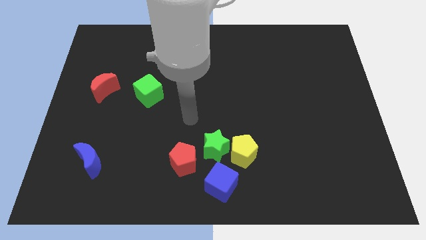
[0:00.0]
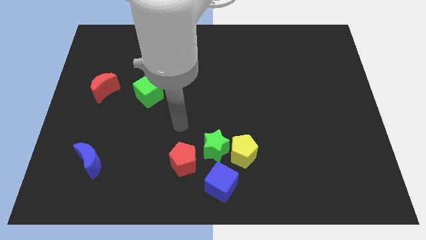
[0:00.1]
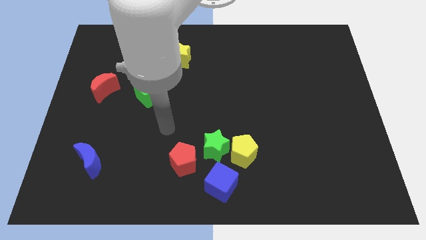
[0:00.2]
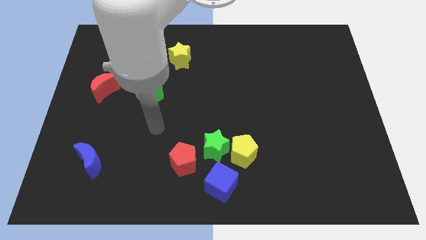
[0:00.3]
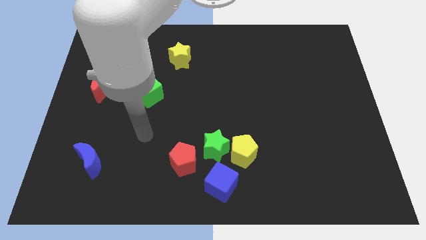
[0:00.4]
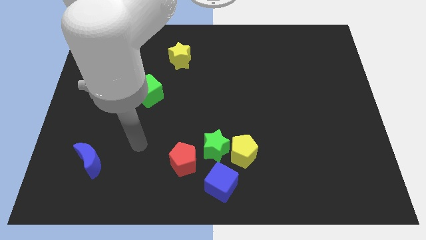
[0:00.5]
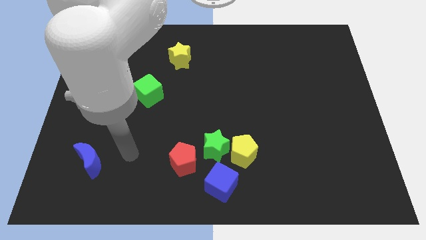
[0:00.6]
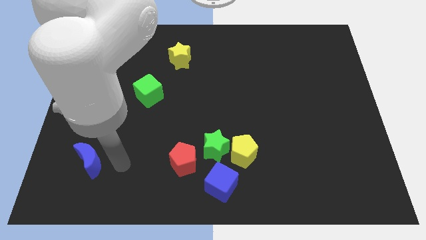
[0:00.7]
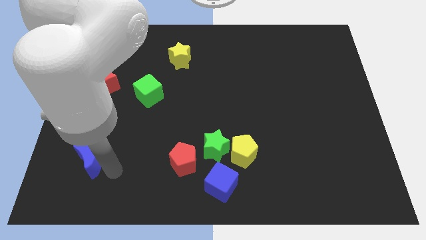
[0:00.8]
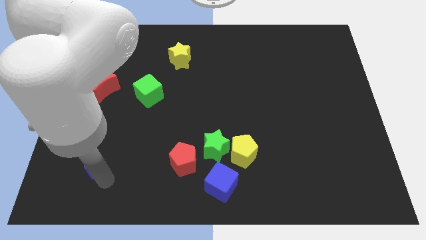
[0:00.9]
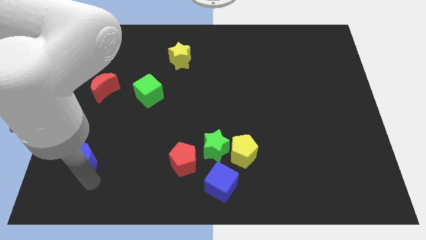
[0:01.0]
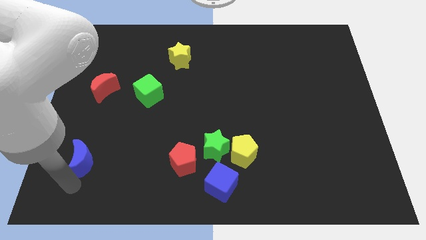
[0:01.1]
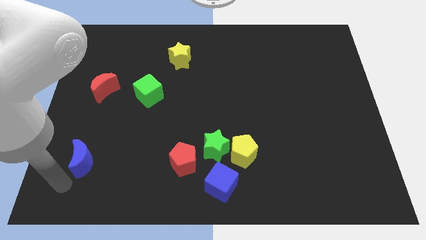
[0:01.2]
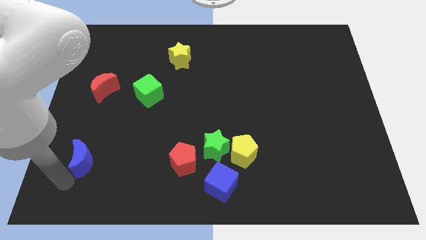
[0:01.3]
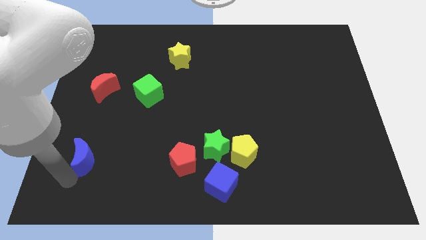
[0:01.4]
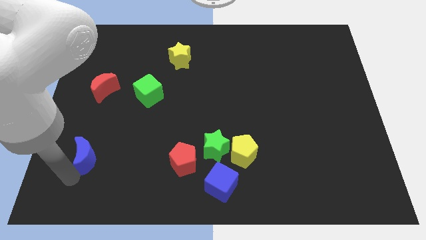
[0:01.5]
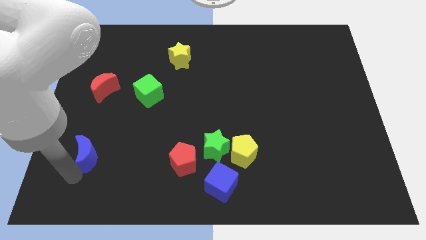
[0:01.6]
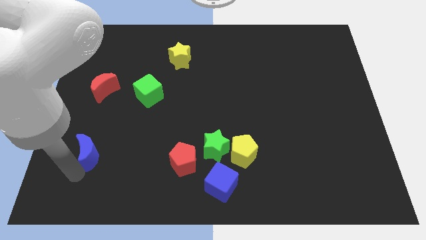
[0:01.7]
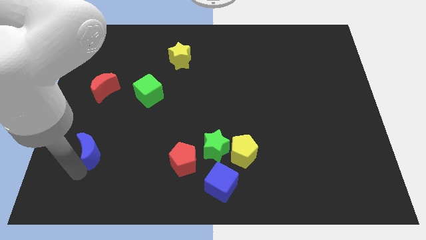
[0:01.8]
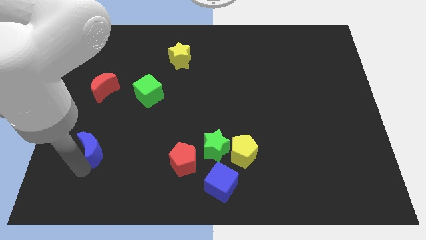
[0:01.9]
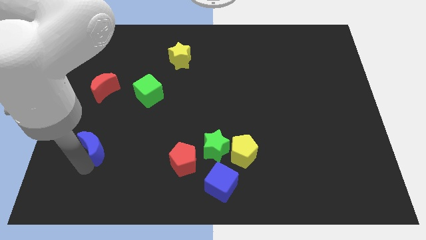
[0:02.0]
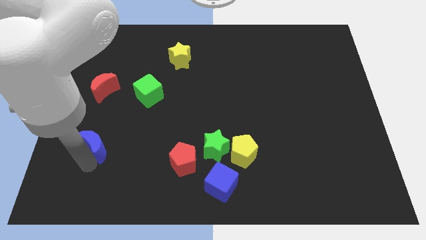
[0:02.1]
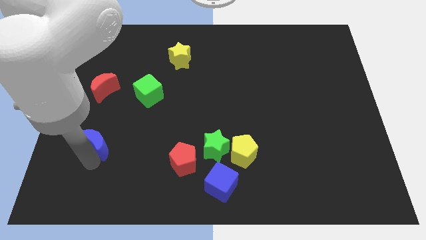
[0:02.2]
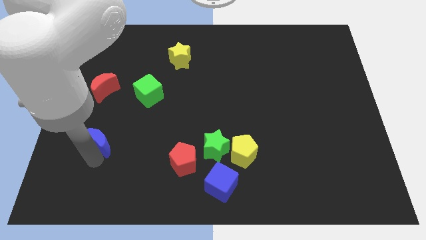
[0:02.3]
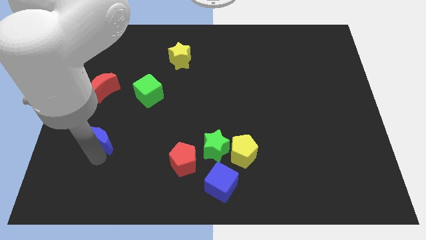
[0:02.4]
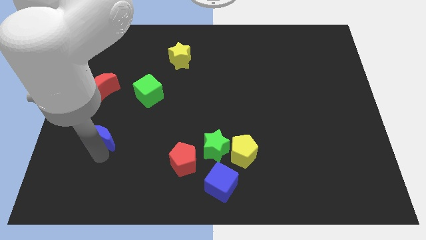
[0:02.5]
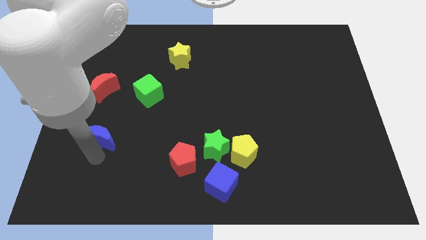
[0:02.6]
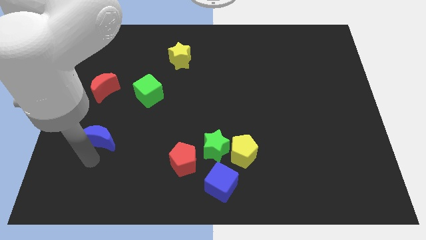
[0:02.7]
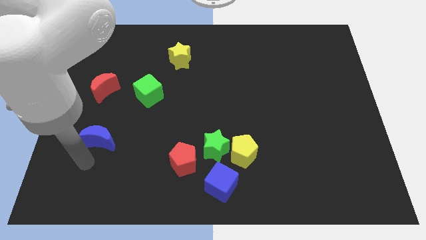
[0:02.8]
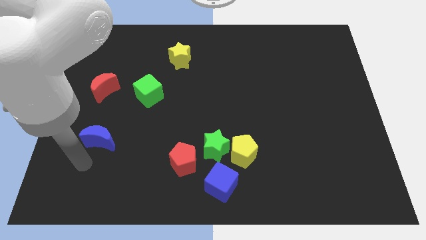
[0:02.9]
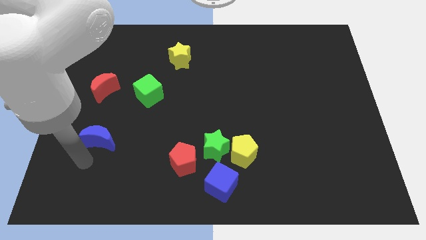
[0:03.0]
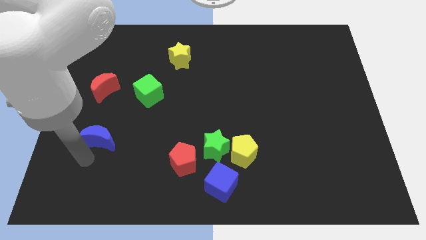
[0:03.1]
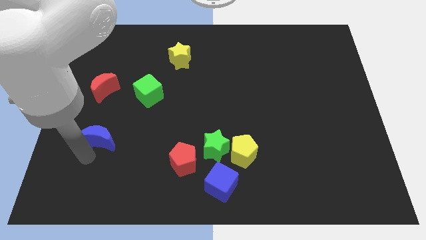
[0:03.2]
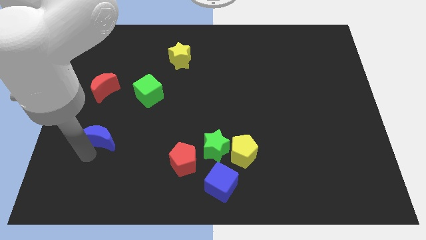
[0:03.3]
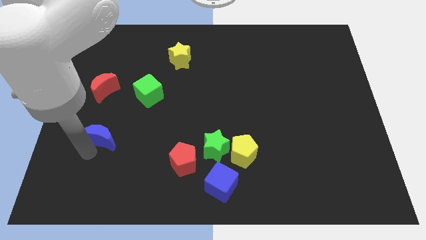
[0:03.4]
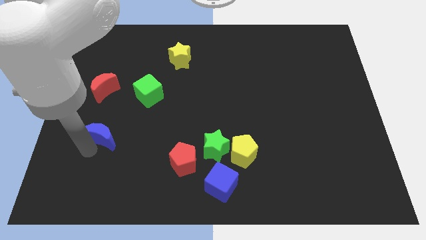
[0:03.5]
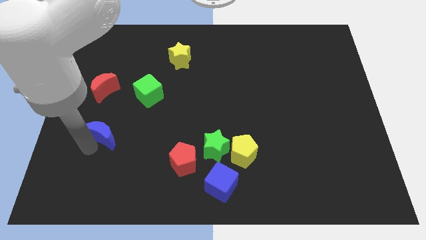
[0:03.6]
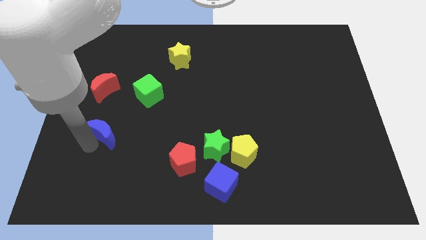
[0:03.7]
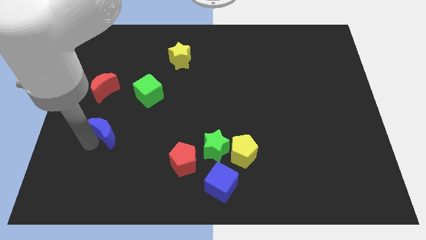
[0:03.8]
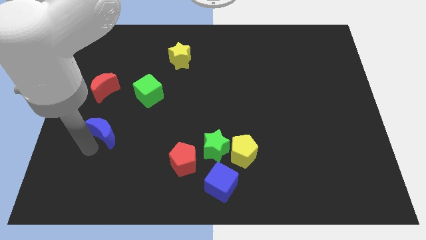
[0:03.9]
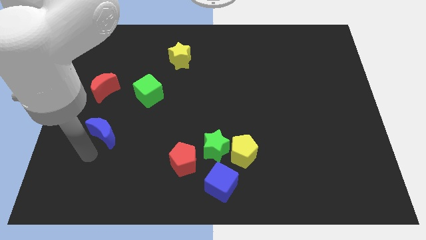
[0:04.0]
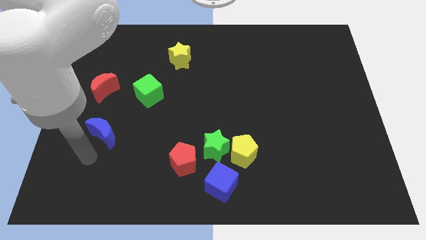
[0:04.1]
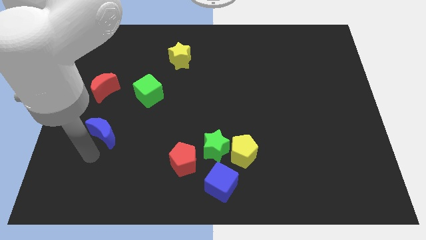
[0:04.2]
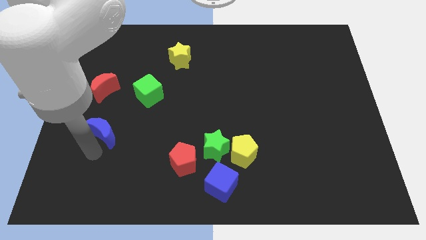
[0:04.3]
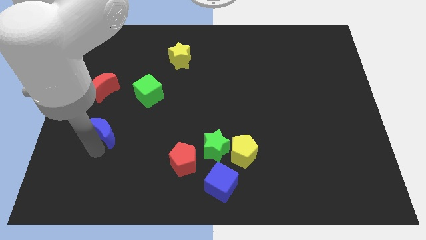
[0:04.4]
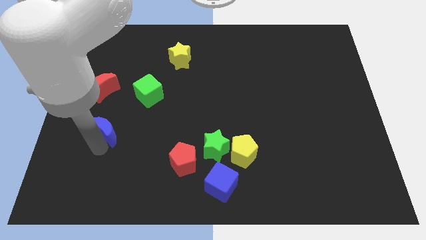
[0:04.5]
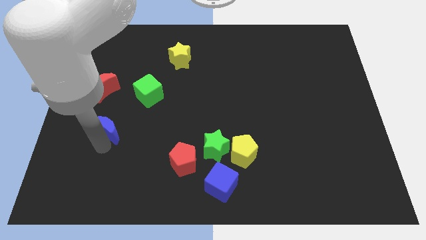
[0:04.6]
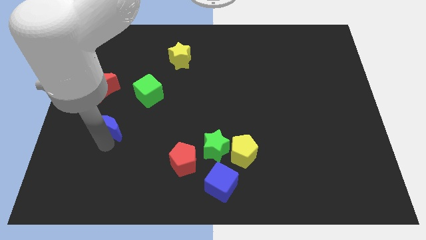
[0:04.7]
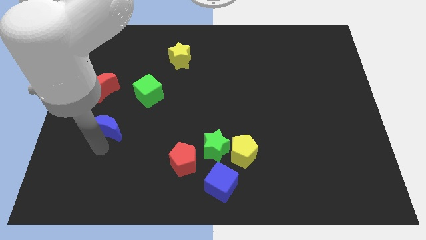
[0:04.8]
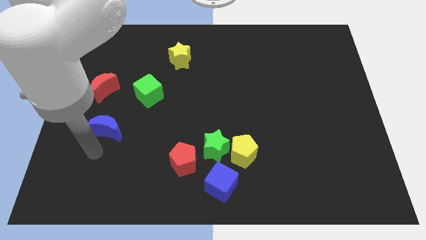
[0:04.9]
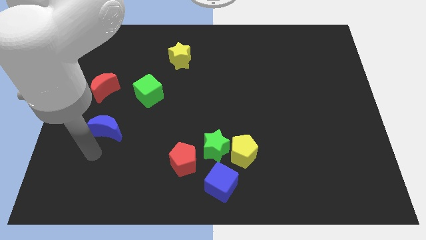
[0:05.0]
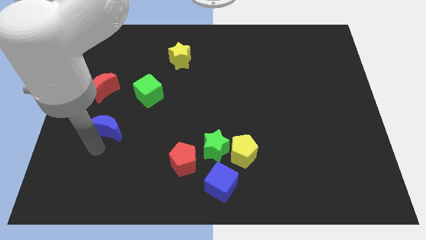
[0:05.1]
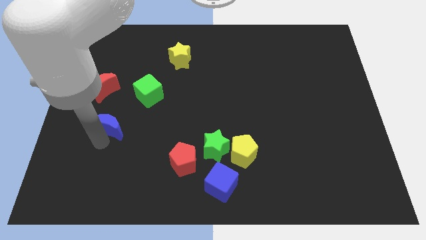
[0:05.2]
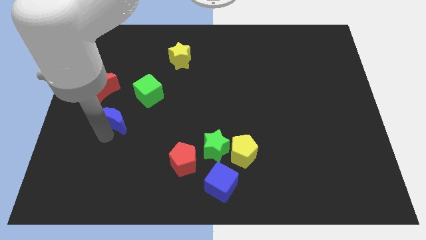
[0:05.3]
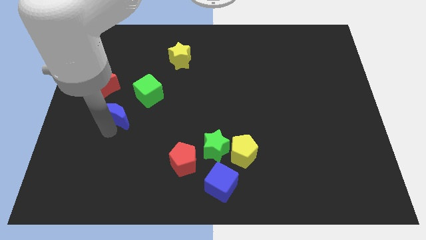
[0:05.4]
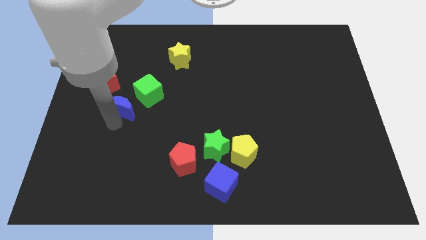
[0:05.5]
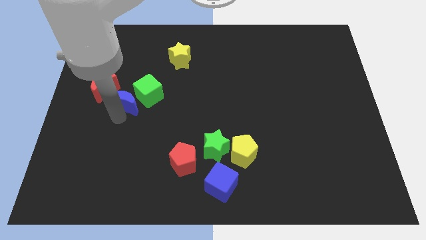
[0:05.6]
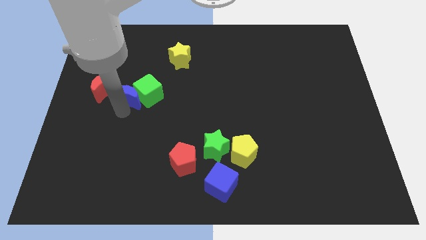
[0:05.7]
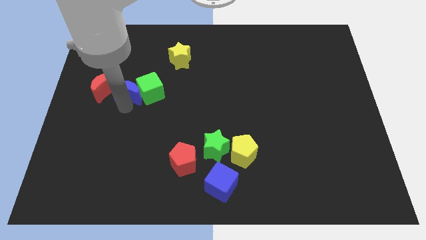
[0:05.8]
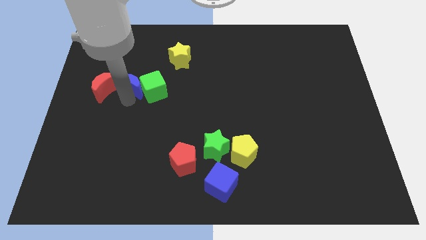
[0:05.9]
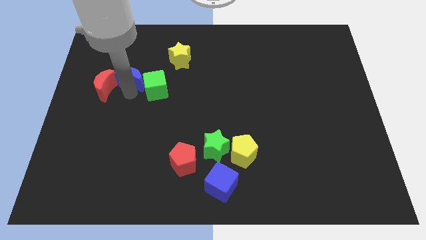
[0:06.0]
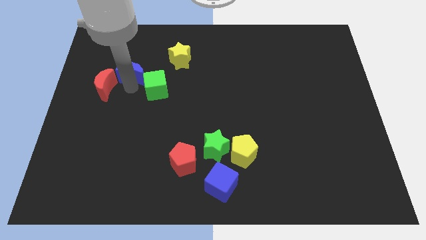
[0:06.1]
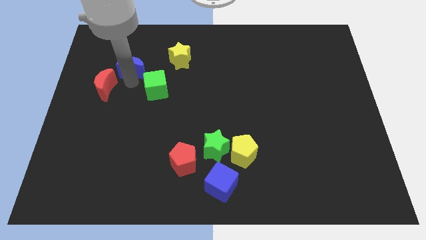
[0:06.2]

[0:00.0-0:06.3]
push the blue moon just left of the yellow star
